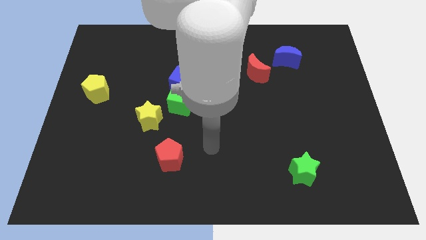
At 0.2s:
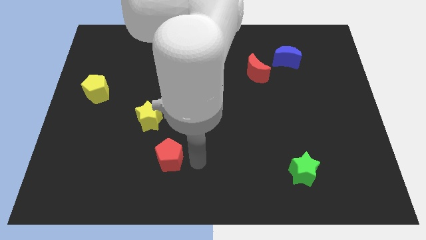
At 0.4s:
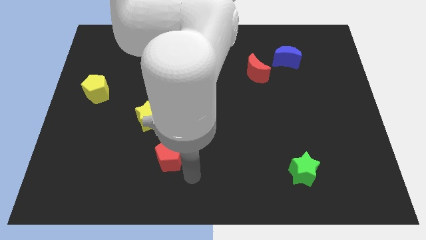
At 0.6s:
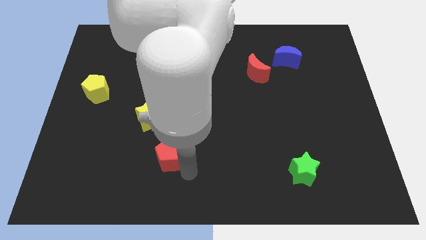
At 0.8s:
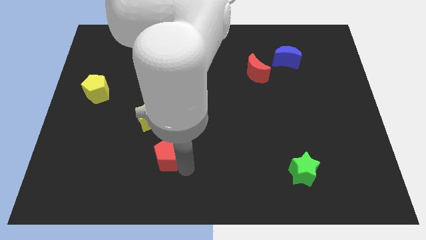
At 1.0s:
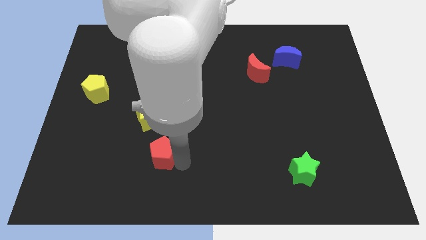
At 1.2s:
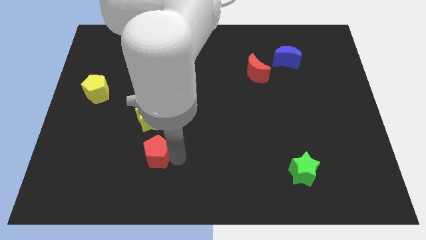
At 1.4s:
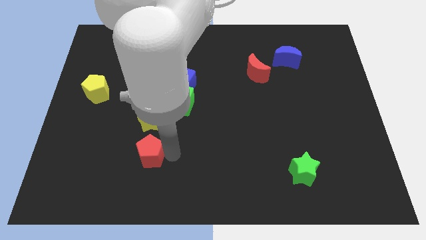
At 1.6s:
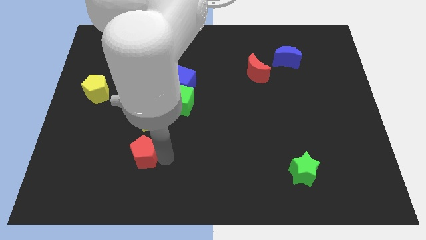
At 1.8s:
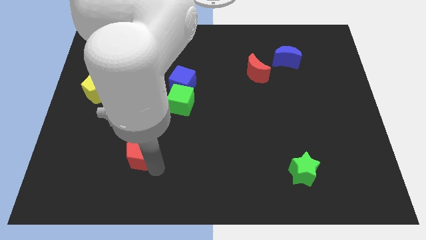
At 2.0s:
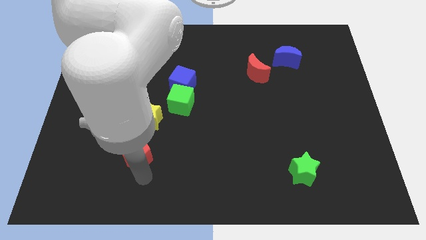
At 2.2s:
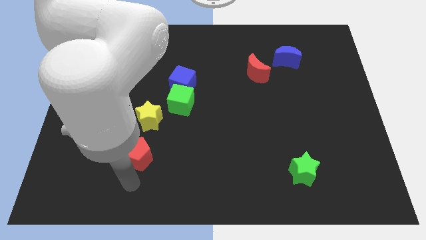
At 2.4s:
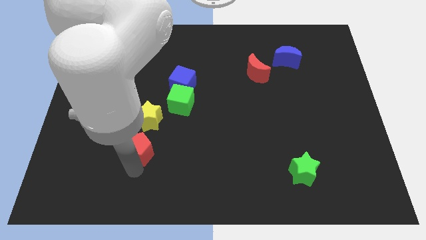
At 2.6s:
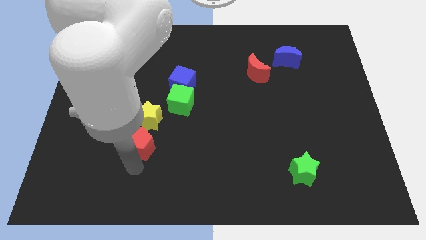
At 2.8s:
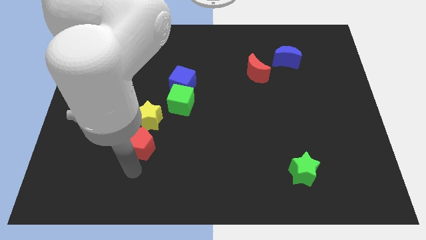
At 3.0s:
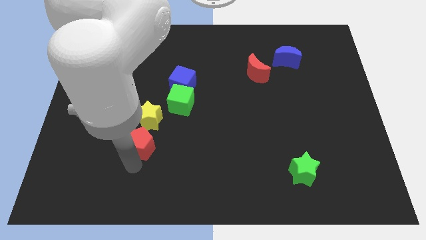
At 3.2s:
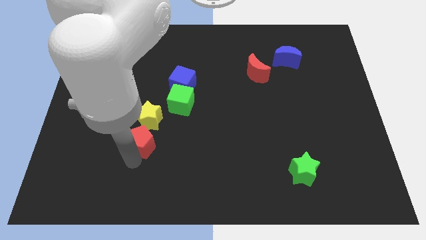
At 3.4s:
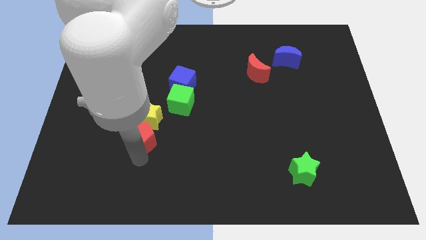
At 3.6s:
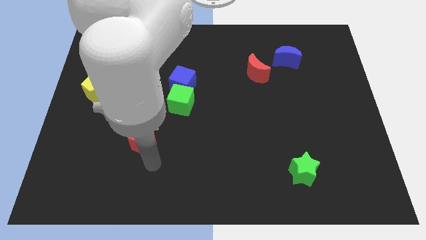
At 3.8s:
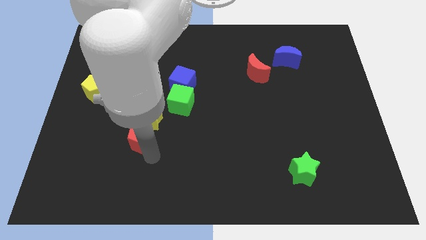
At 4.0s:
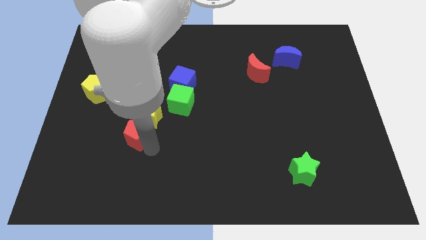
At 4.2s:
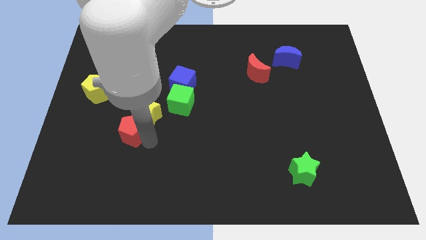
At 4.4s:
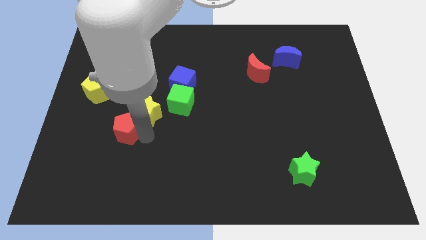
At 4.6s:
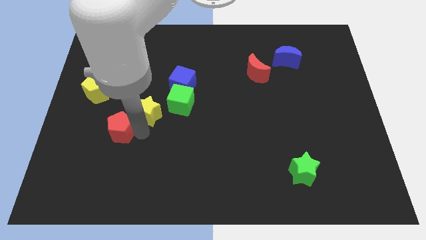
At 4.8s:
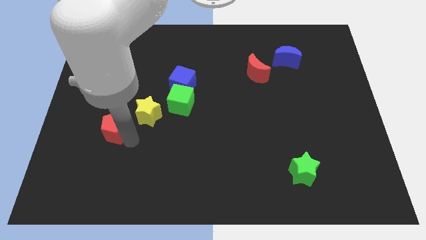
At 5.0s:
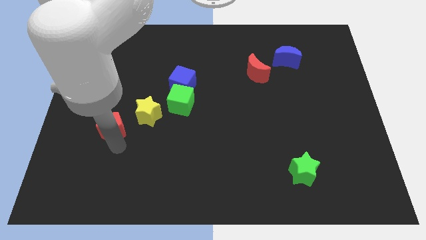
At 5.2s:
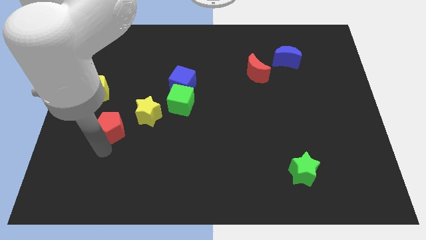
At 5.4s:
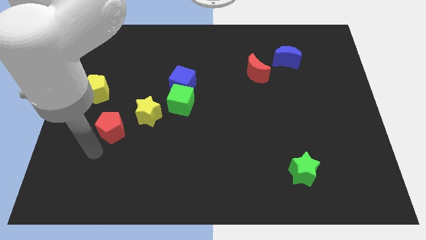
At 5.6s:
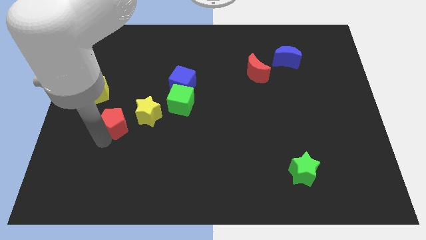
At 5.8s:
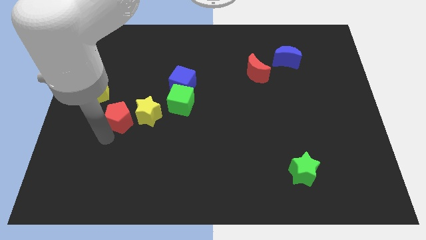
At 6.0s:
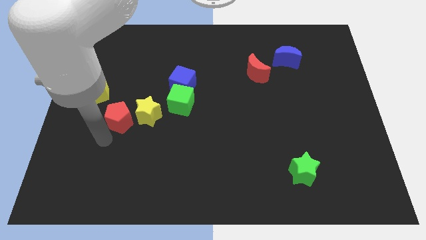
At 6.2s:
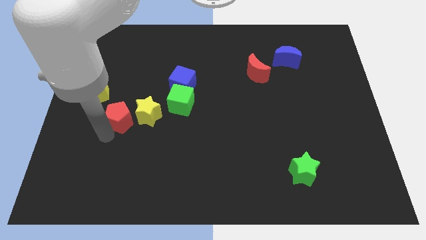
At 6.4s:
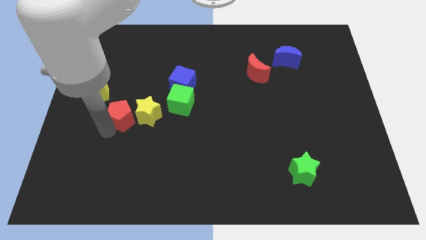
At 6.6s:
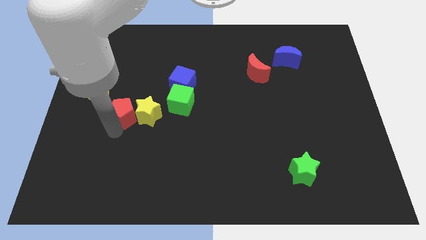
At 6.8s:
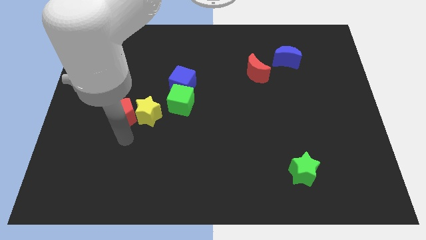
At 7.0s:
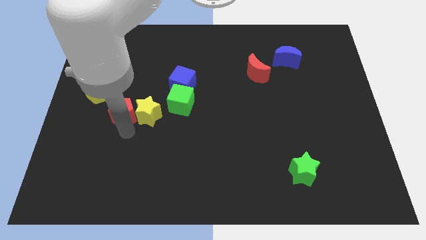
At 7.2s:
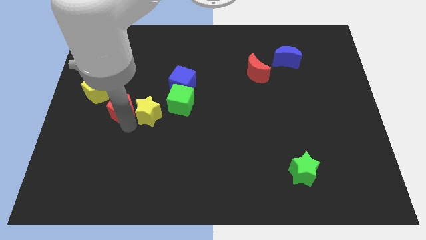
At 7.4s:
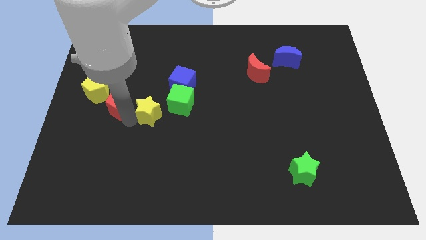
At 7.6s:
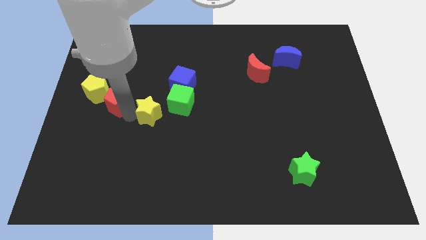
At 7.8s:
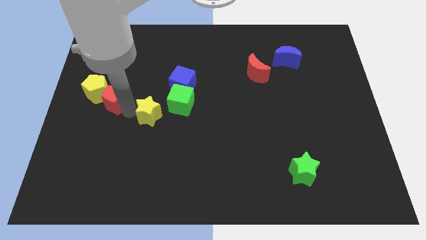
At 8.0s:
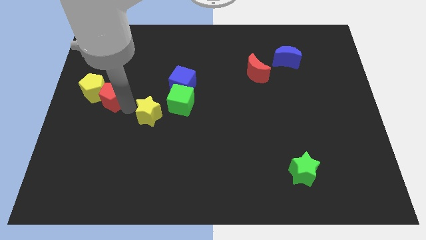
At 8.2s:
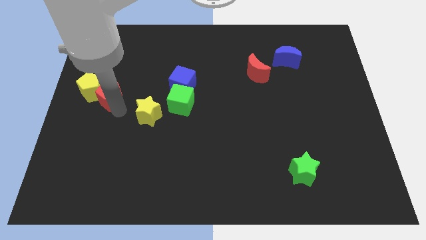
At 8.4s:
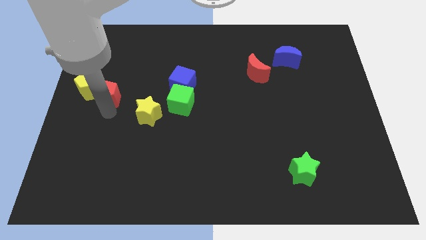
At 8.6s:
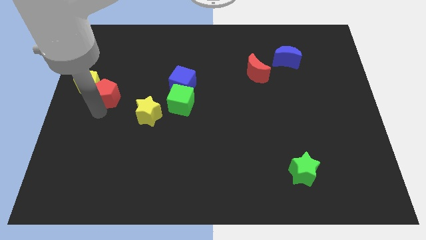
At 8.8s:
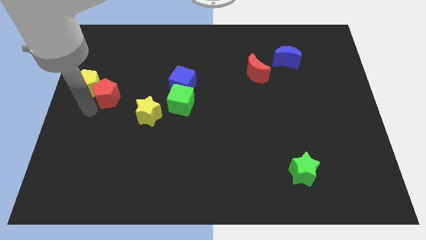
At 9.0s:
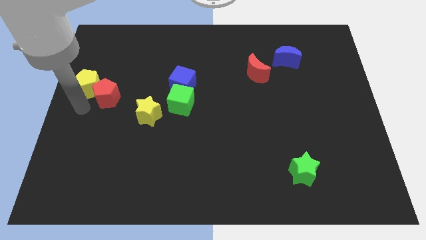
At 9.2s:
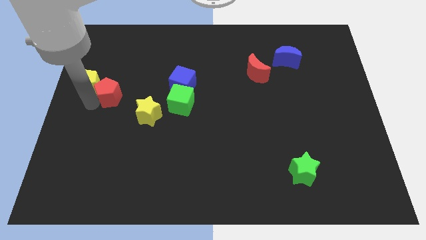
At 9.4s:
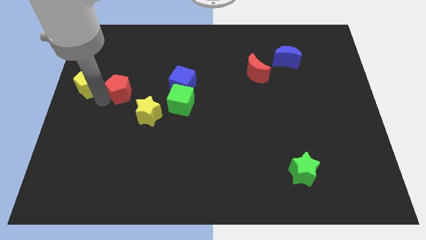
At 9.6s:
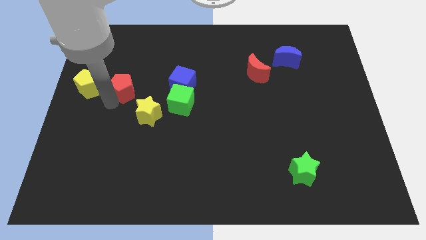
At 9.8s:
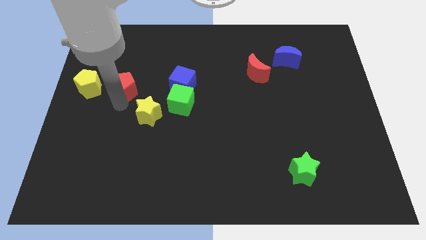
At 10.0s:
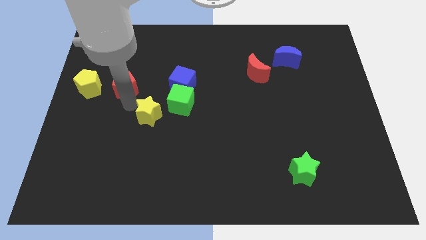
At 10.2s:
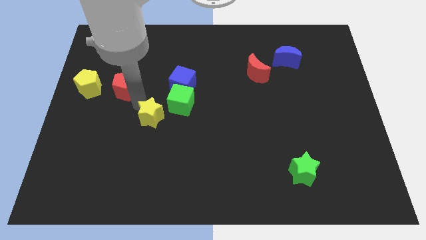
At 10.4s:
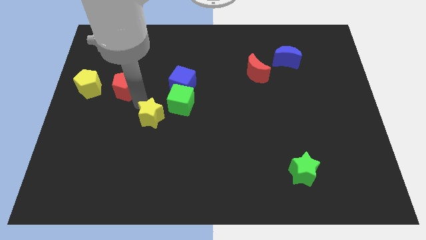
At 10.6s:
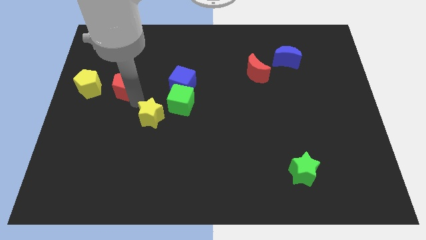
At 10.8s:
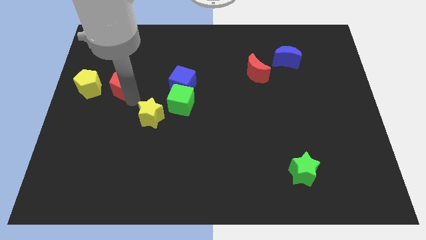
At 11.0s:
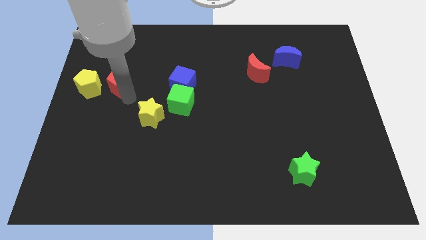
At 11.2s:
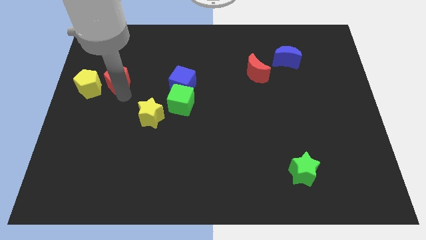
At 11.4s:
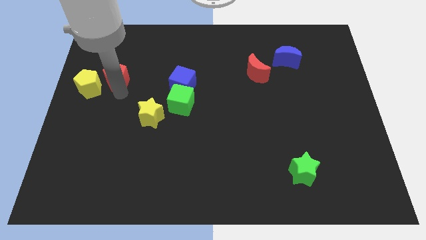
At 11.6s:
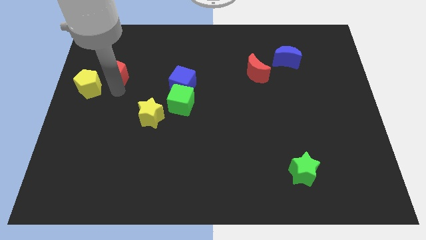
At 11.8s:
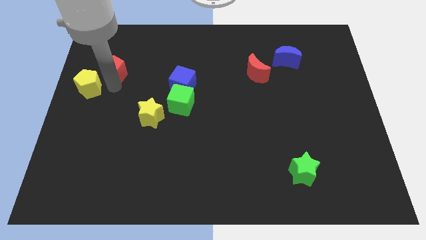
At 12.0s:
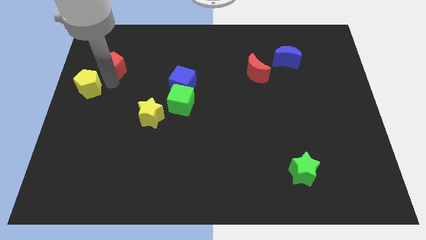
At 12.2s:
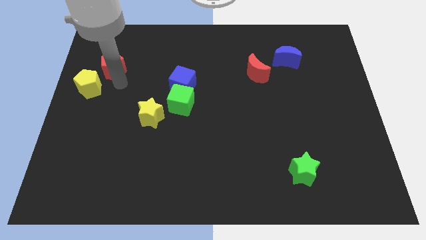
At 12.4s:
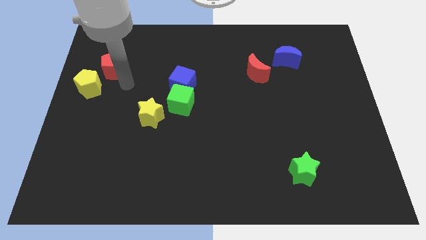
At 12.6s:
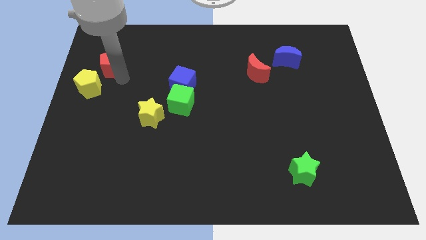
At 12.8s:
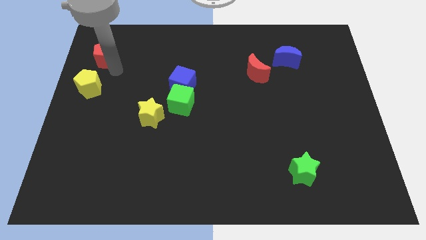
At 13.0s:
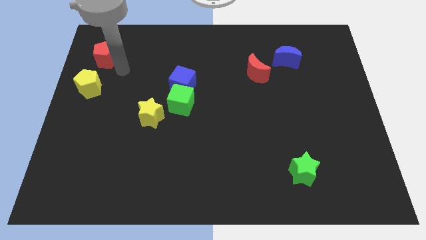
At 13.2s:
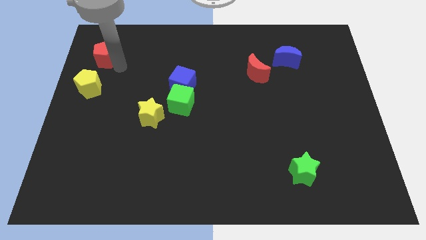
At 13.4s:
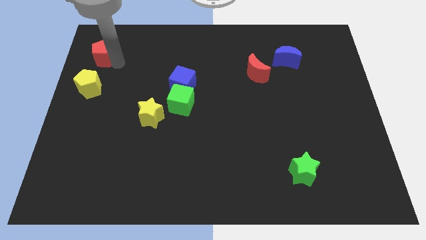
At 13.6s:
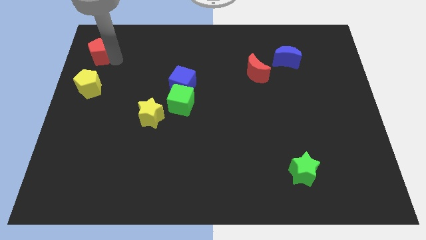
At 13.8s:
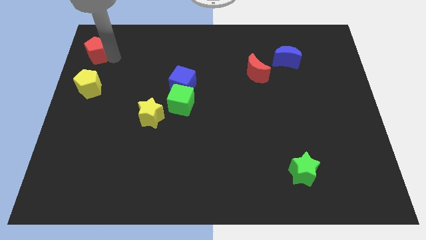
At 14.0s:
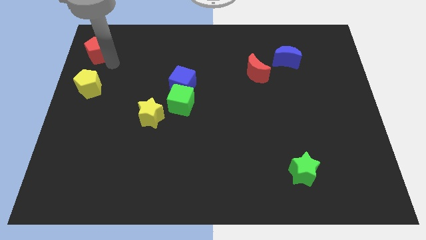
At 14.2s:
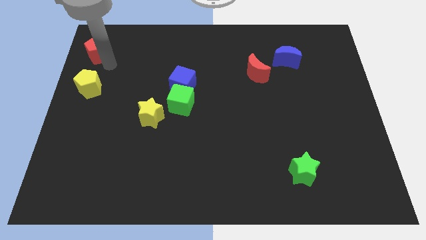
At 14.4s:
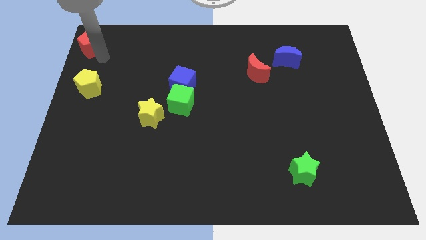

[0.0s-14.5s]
put the red pentagon to the top left
